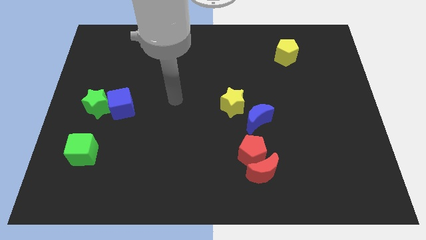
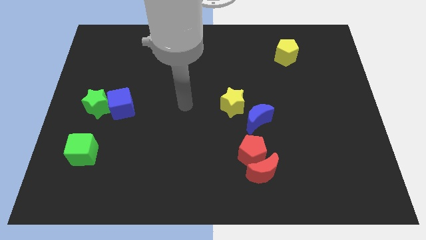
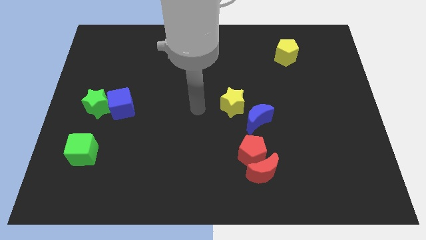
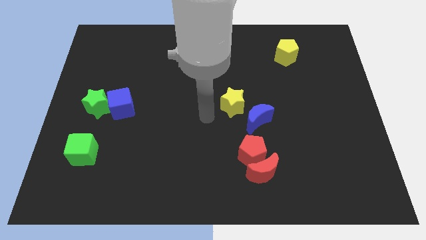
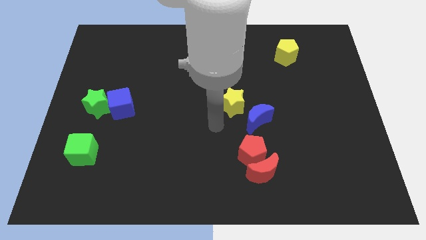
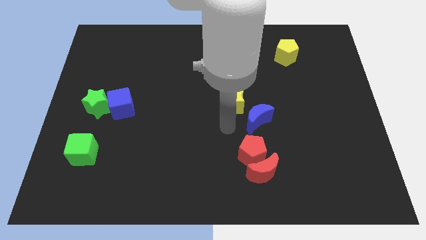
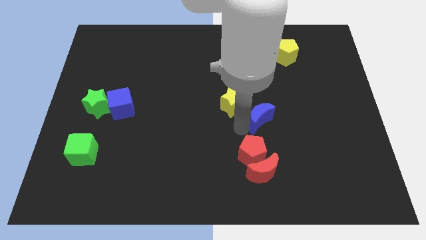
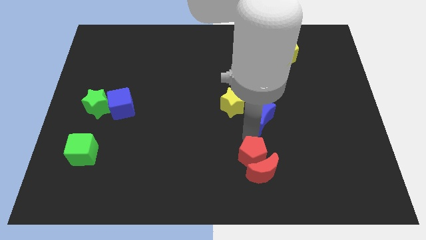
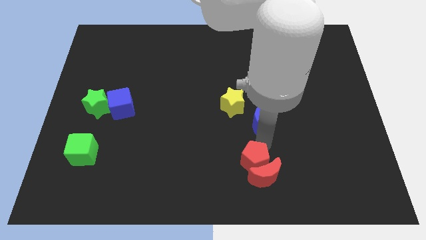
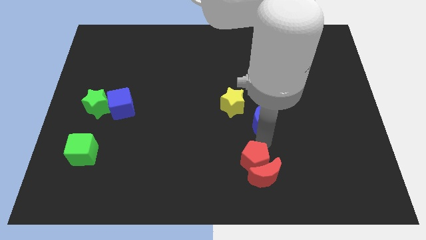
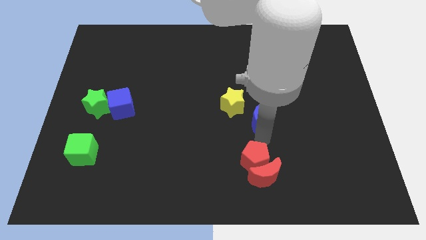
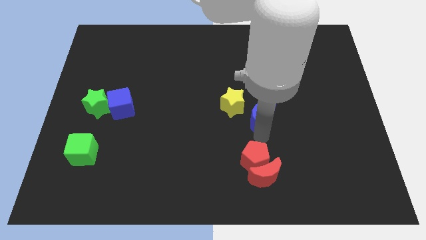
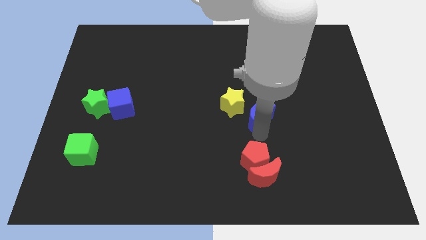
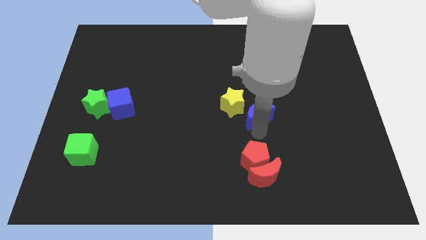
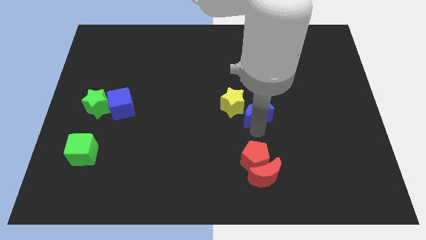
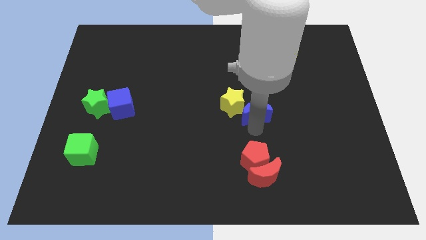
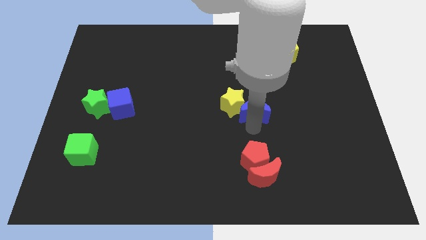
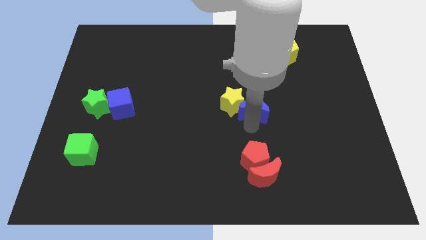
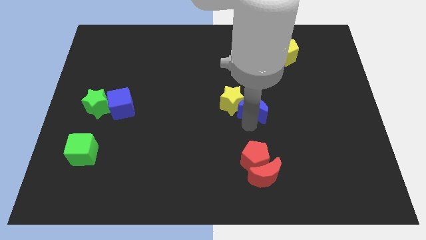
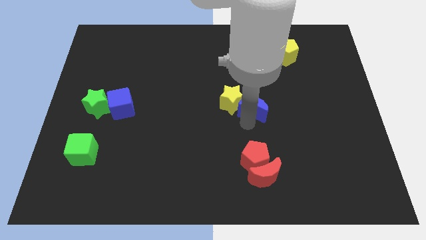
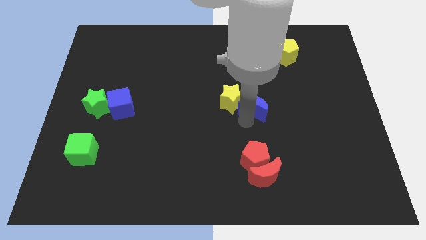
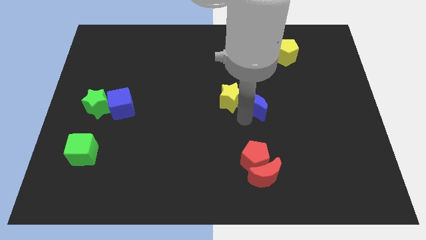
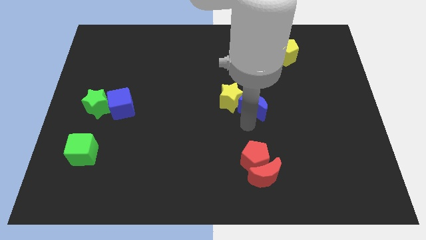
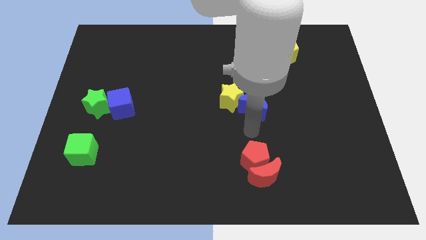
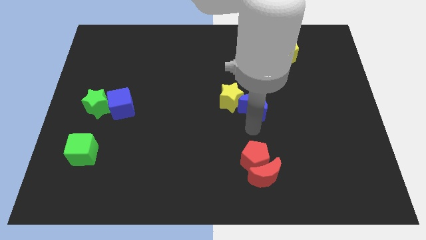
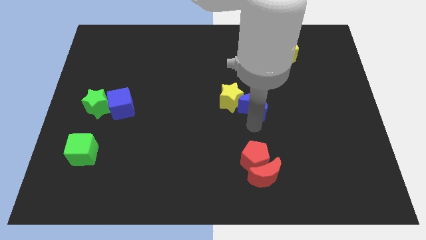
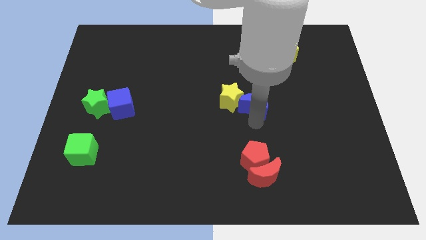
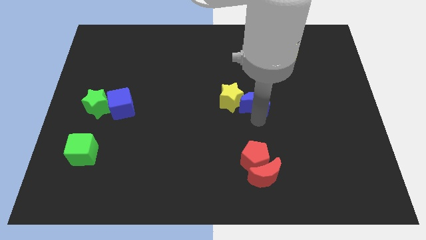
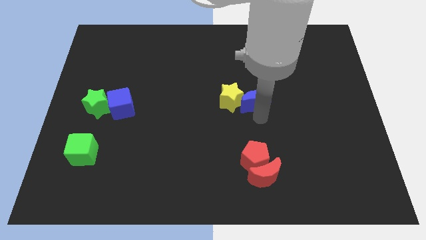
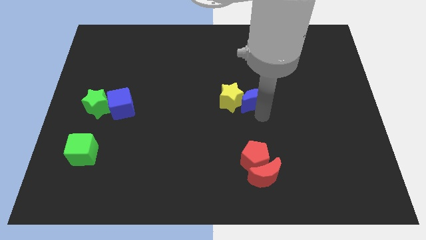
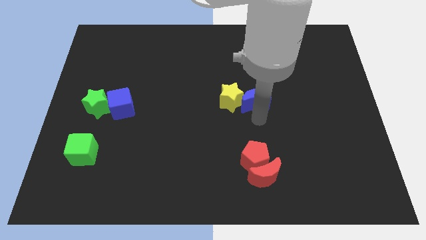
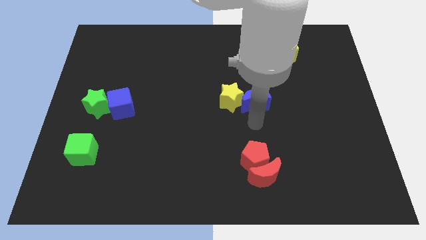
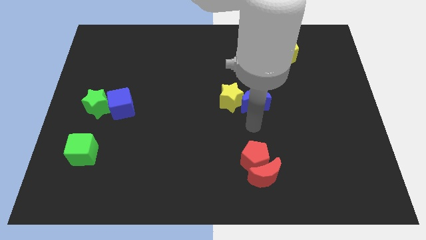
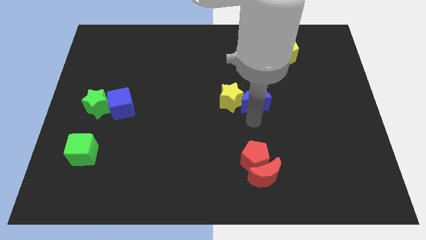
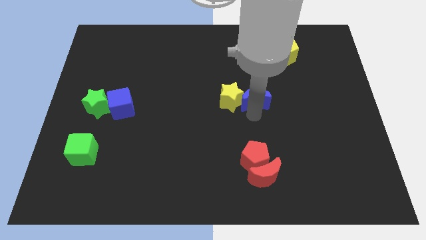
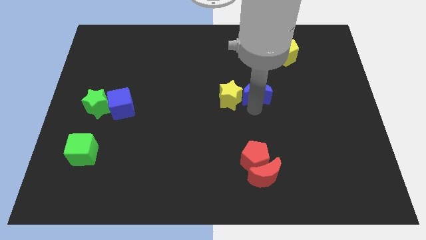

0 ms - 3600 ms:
slide the blue moon a little upwards

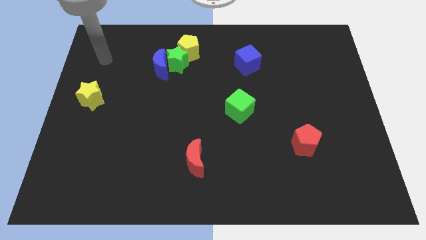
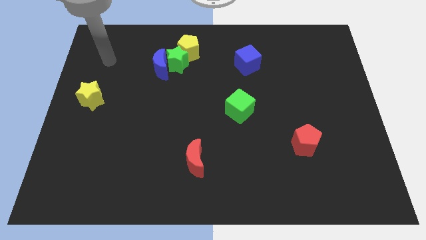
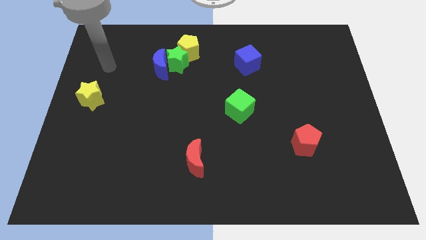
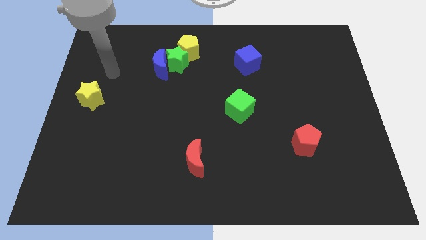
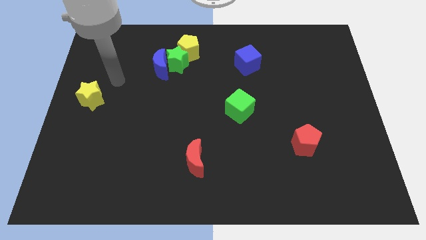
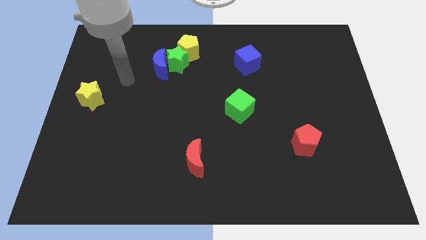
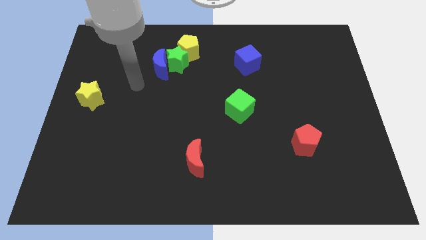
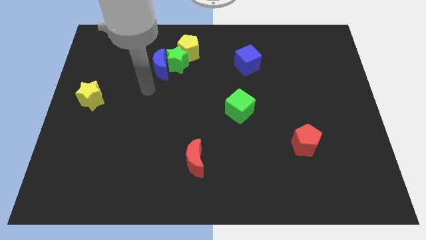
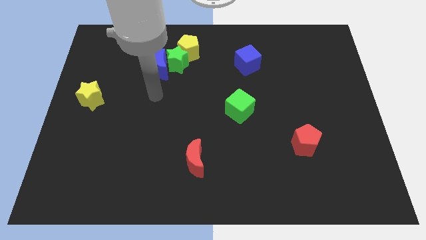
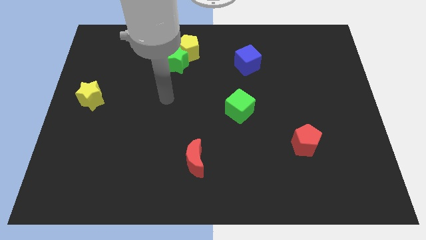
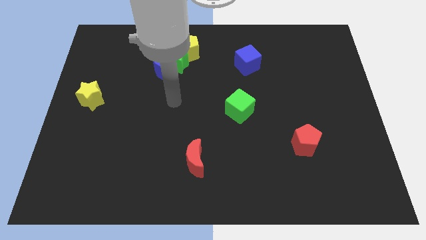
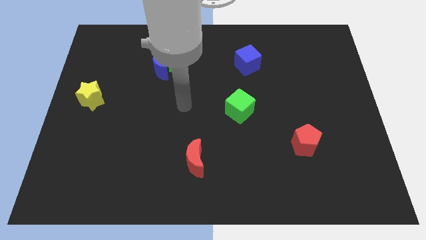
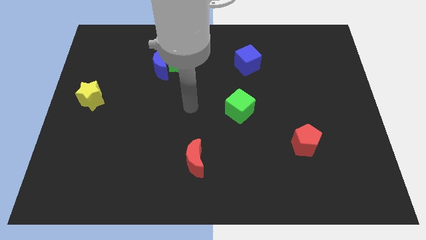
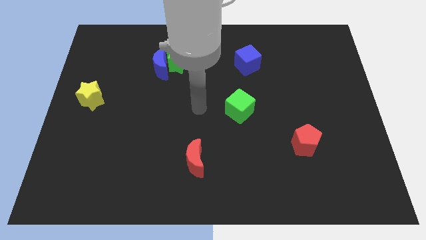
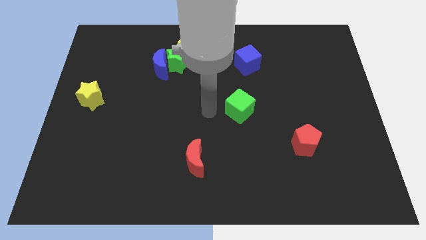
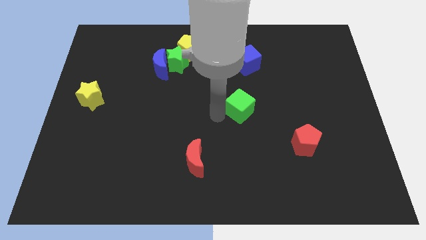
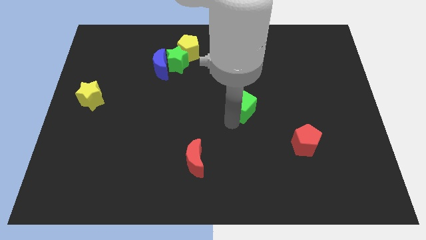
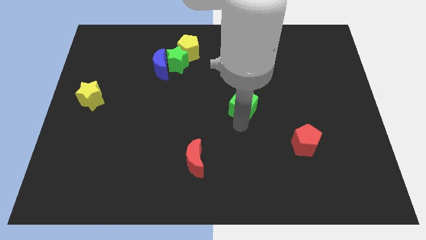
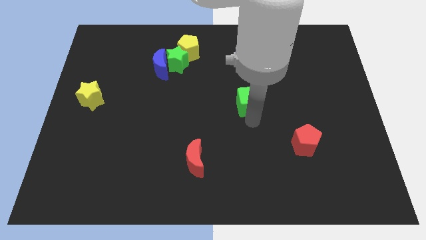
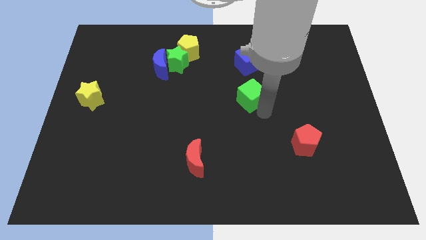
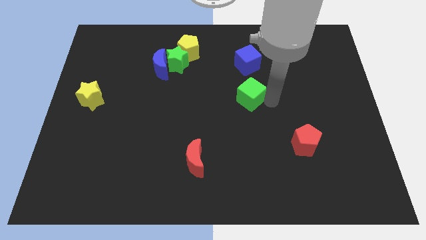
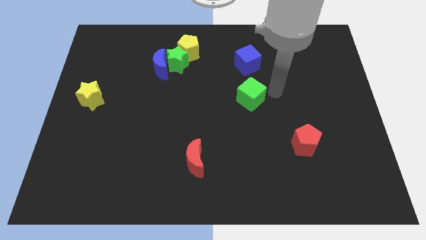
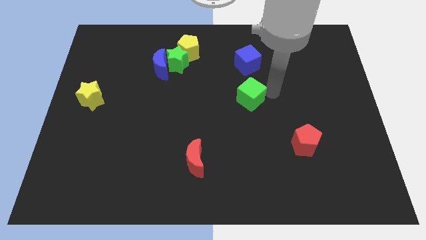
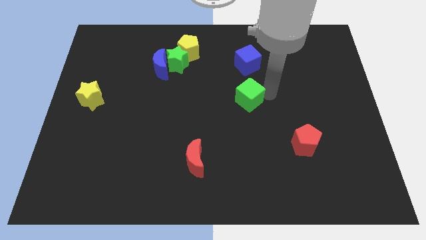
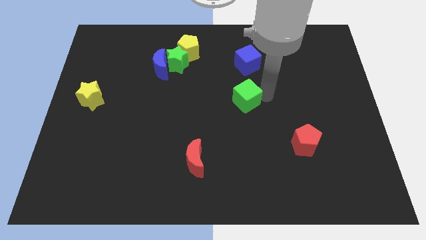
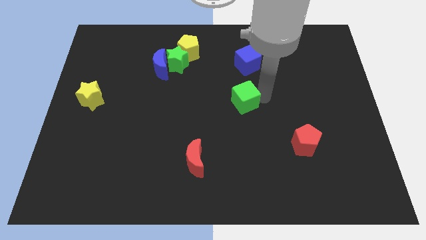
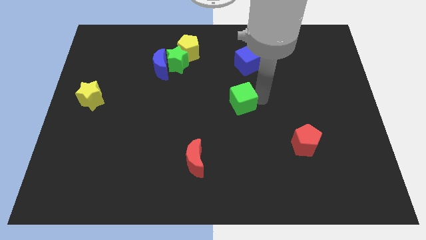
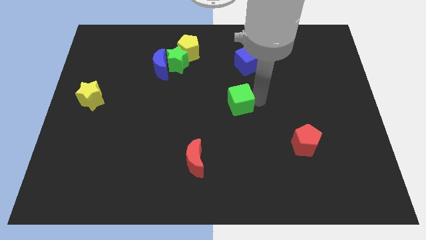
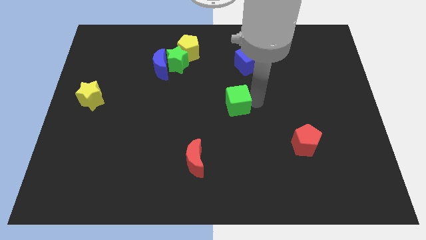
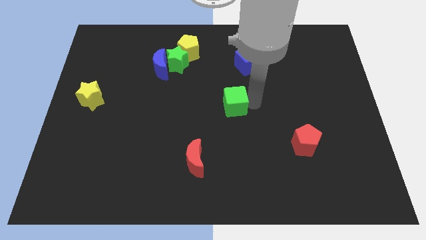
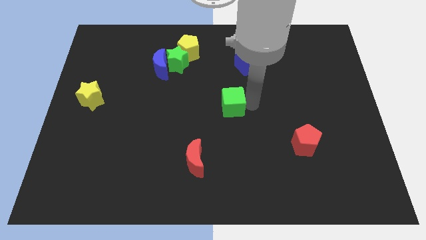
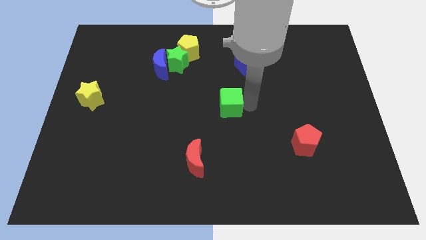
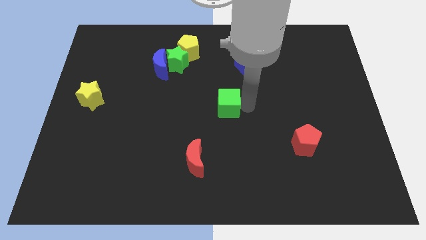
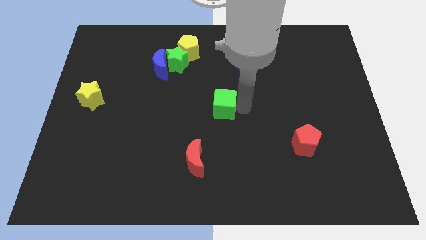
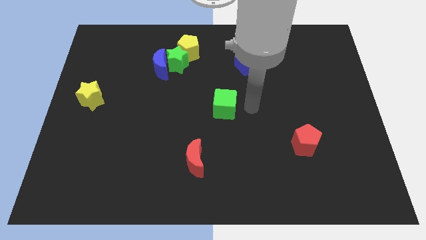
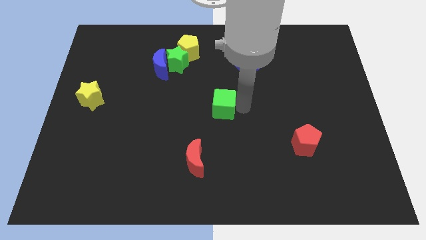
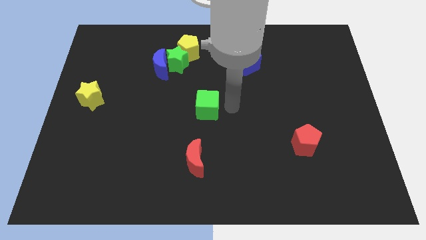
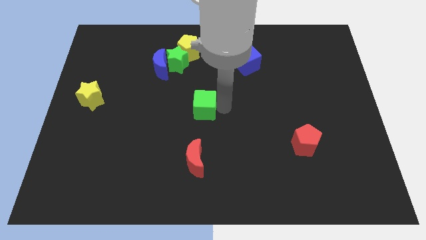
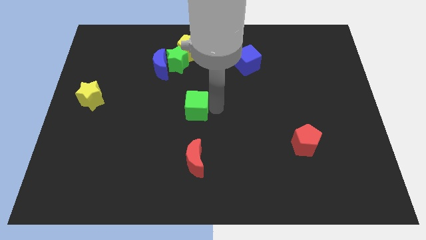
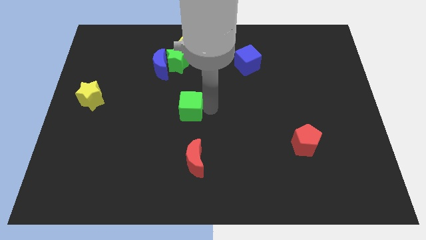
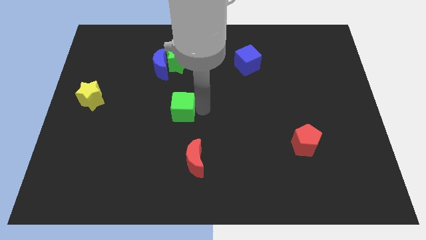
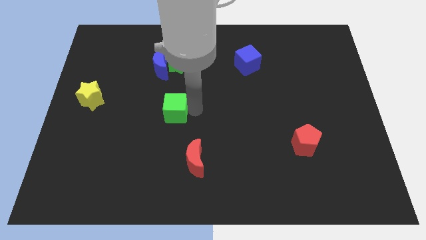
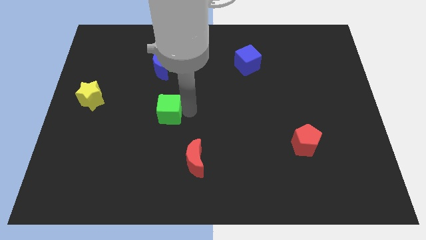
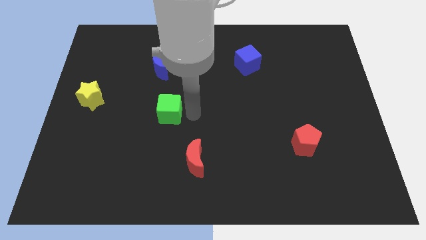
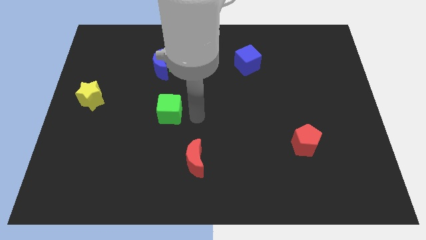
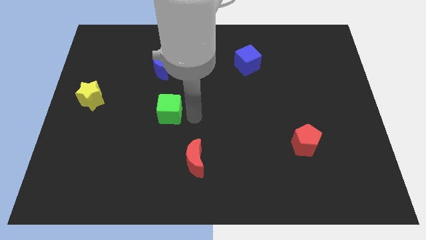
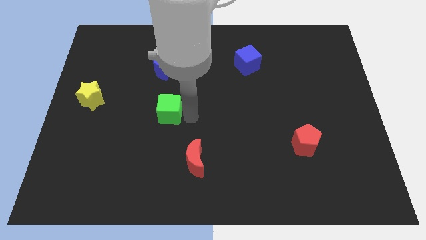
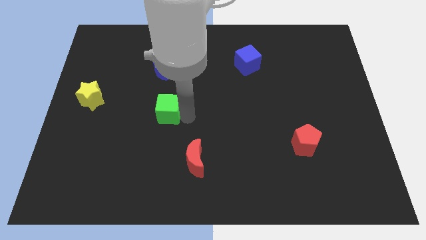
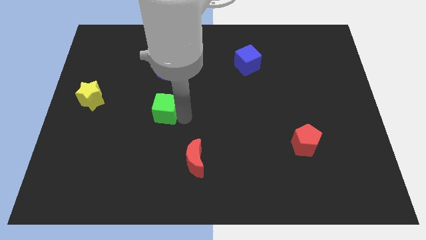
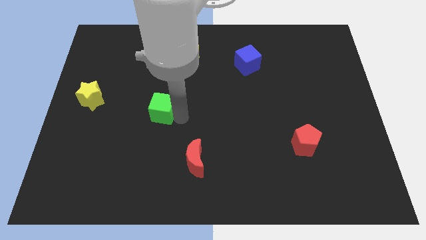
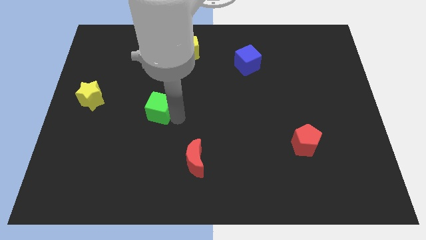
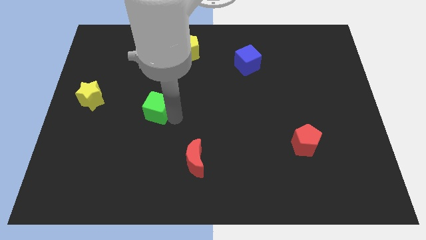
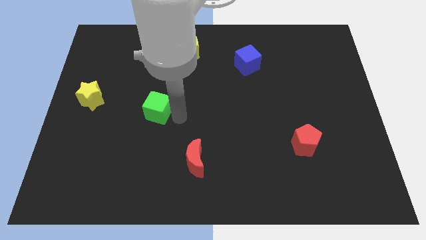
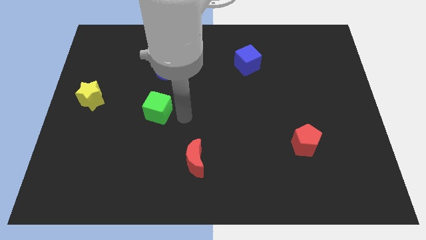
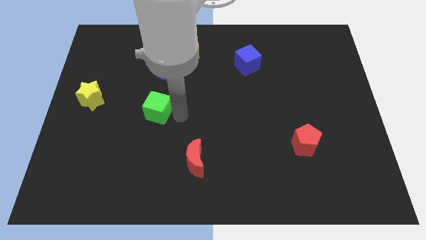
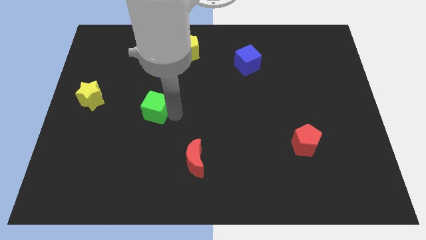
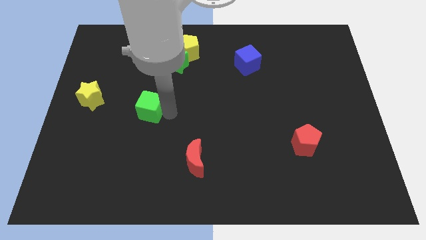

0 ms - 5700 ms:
push the green cube to the left
